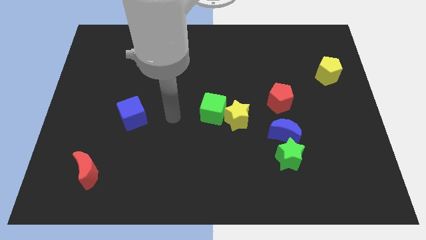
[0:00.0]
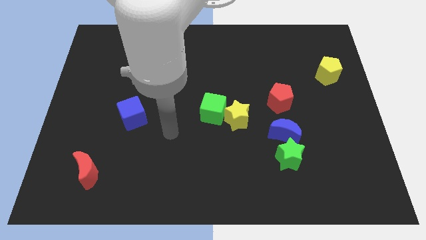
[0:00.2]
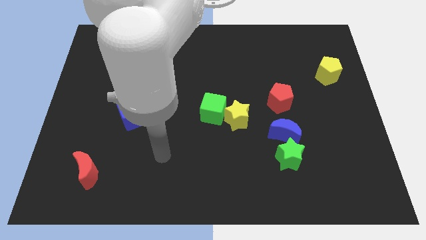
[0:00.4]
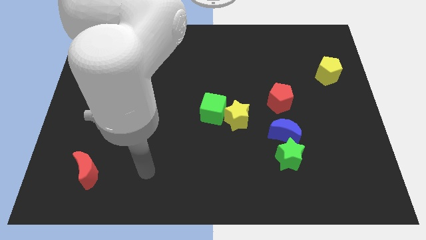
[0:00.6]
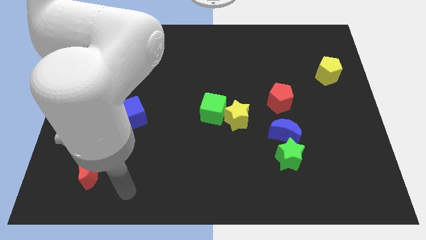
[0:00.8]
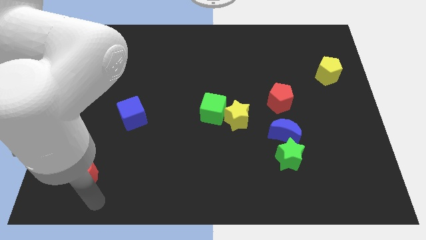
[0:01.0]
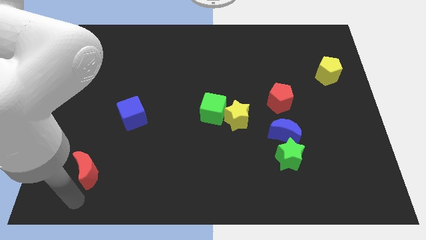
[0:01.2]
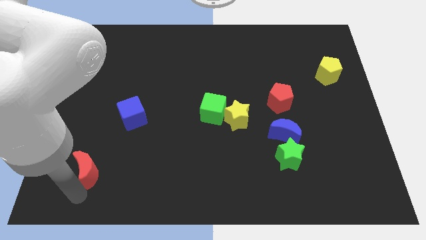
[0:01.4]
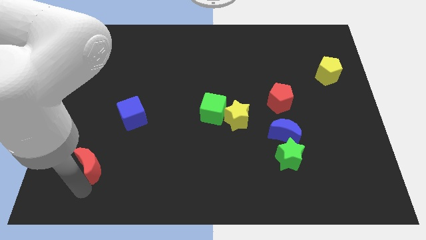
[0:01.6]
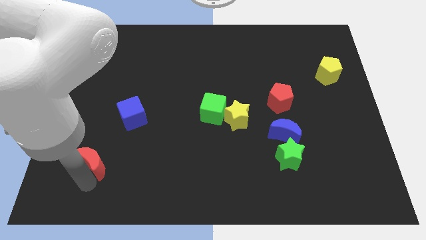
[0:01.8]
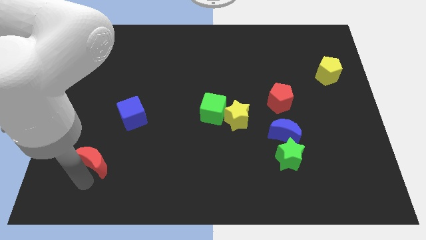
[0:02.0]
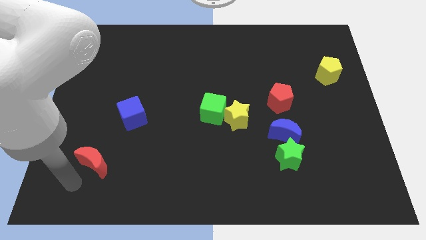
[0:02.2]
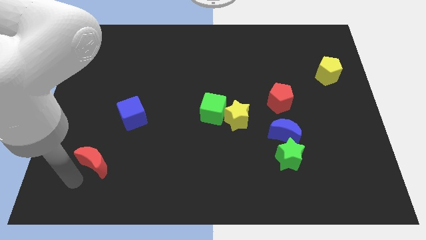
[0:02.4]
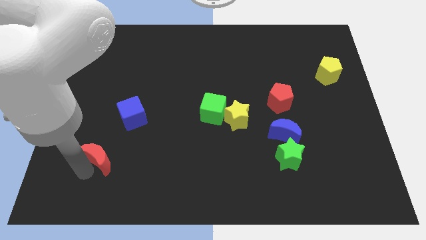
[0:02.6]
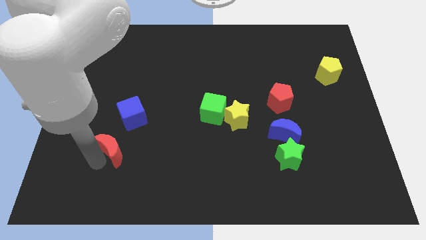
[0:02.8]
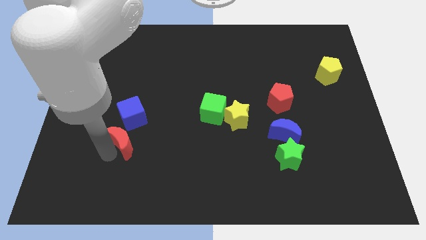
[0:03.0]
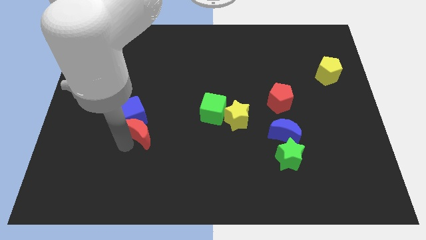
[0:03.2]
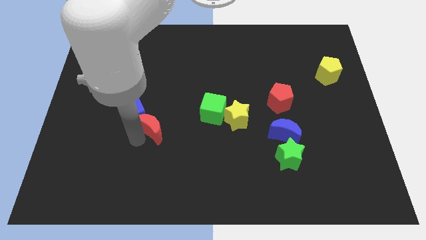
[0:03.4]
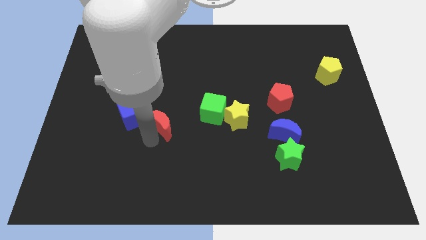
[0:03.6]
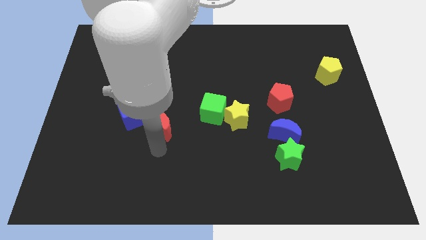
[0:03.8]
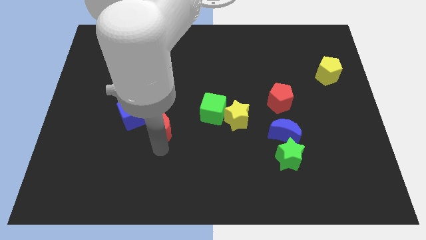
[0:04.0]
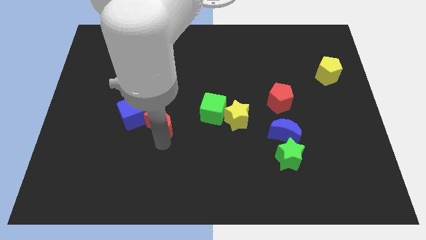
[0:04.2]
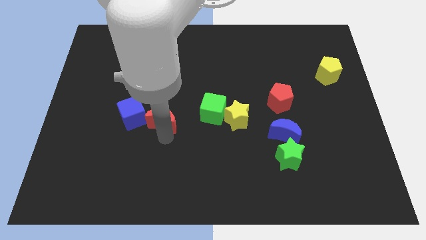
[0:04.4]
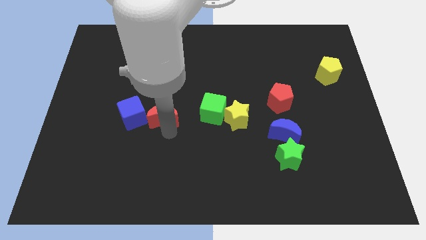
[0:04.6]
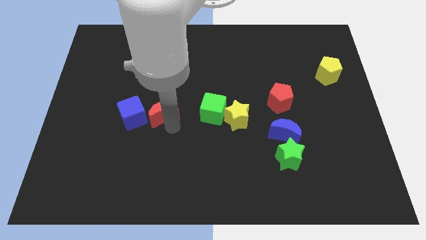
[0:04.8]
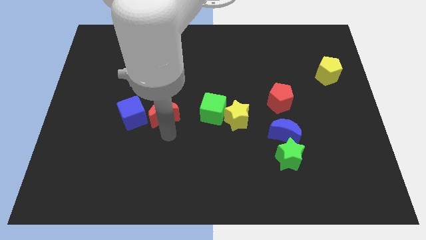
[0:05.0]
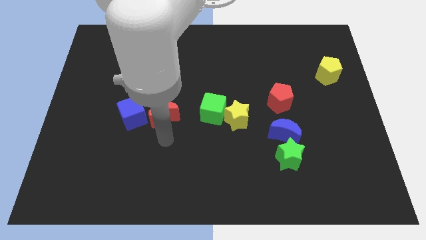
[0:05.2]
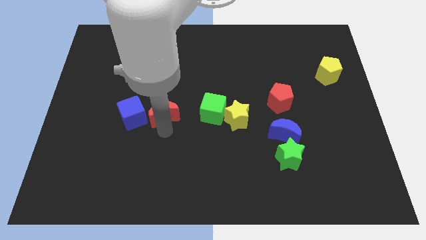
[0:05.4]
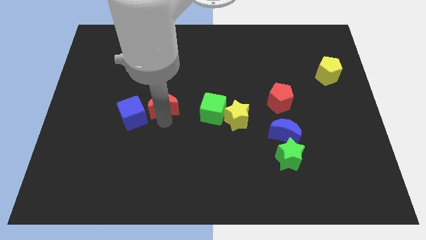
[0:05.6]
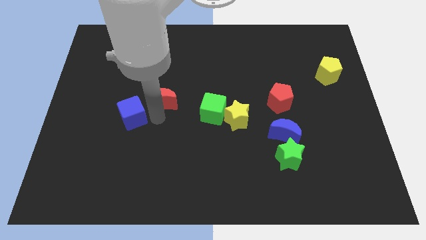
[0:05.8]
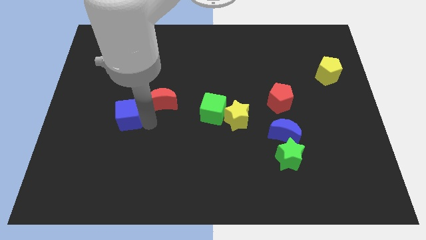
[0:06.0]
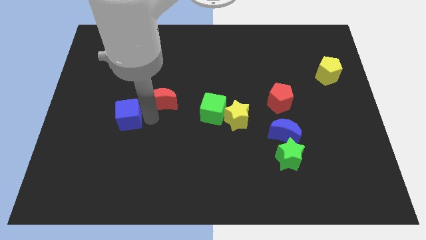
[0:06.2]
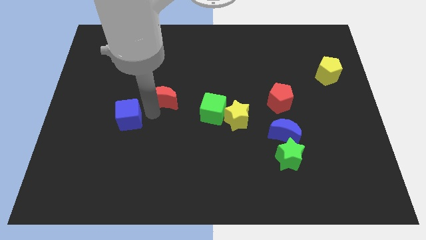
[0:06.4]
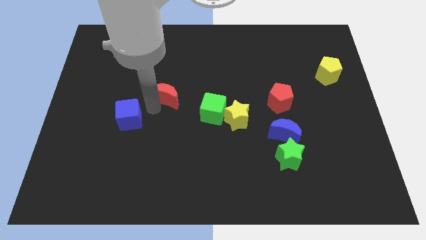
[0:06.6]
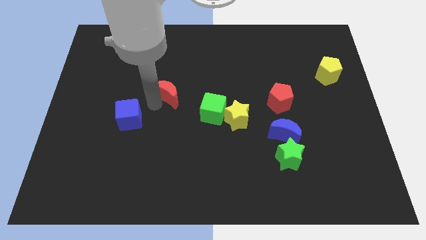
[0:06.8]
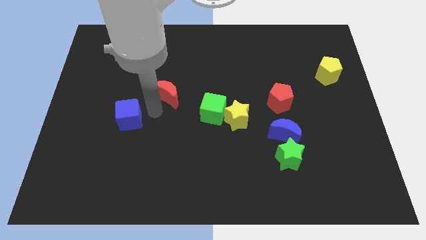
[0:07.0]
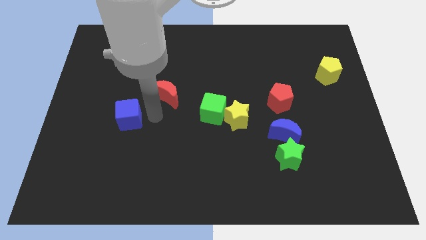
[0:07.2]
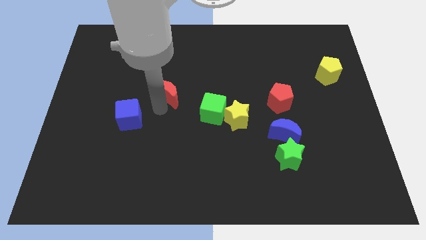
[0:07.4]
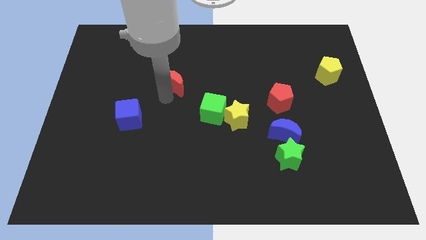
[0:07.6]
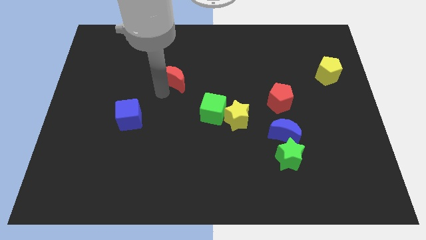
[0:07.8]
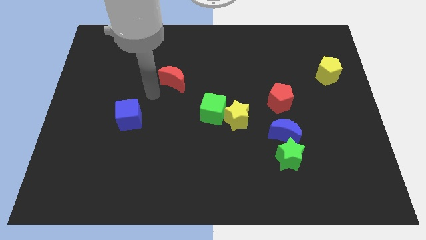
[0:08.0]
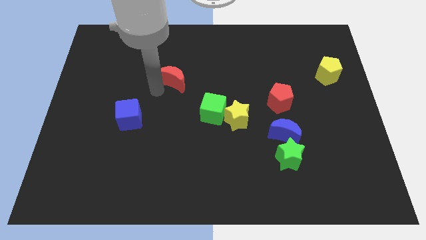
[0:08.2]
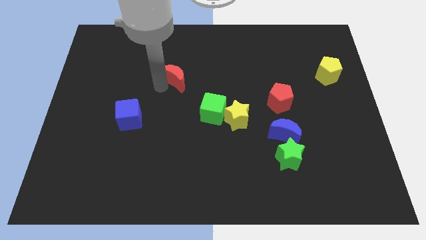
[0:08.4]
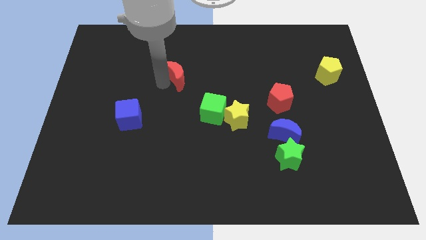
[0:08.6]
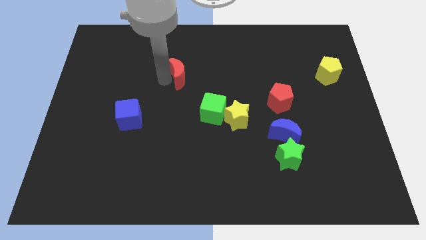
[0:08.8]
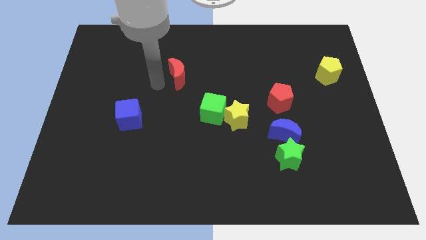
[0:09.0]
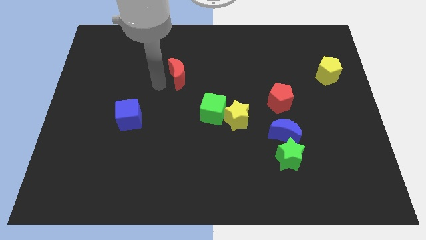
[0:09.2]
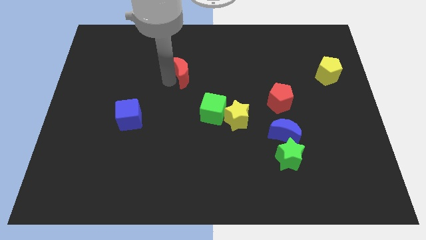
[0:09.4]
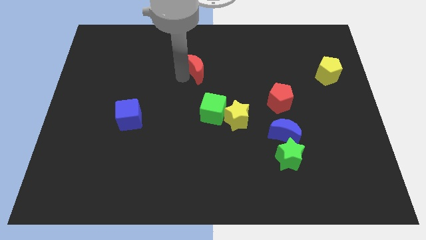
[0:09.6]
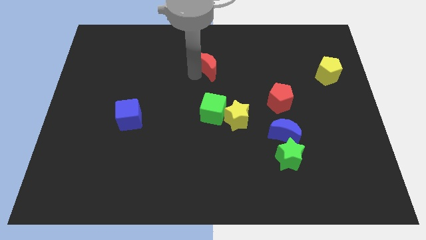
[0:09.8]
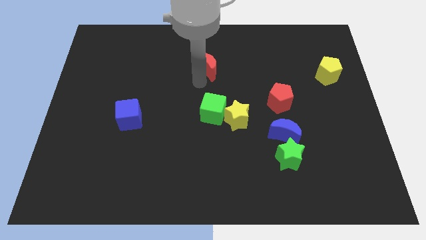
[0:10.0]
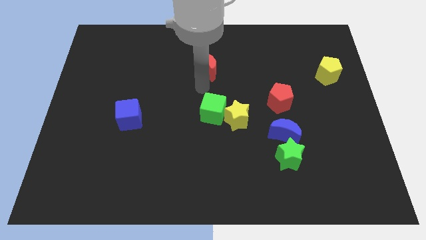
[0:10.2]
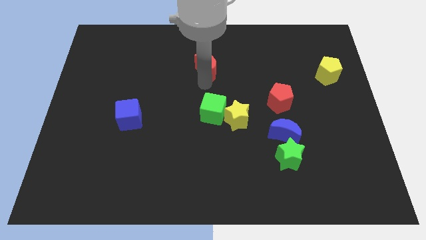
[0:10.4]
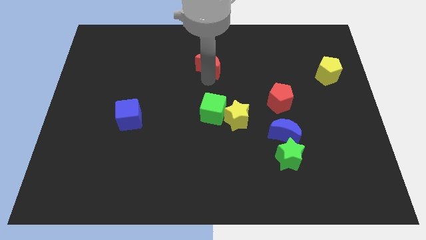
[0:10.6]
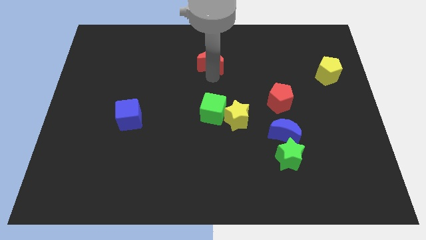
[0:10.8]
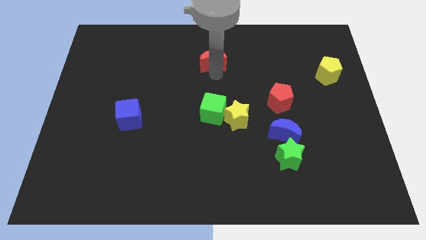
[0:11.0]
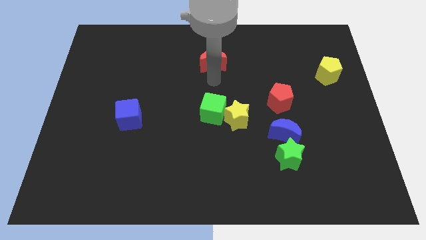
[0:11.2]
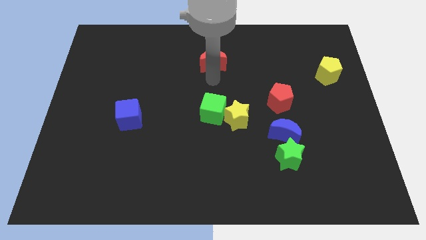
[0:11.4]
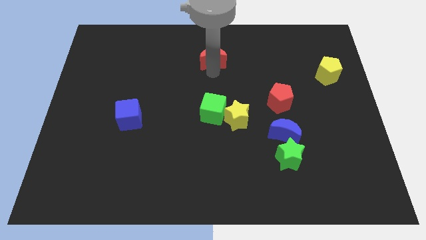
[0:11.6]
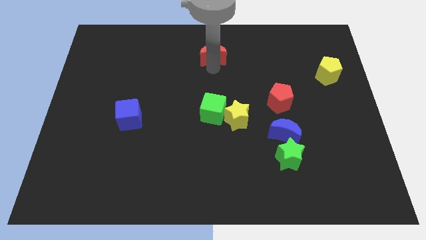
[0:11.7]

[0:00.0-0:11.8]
move the red moon to the towards your base

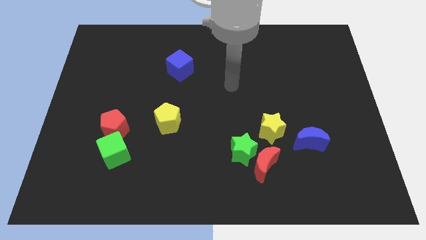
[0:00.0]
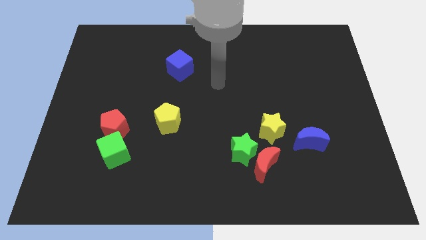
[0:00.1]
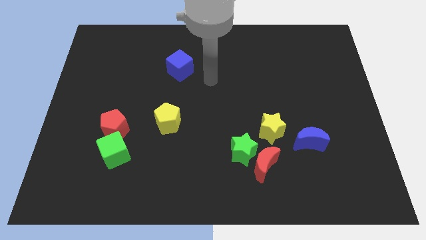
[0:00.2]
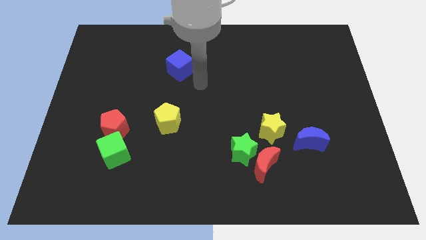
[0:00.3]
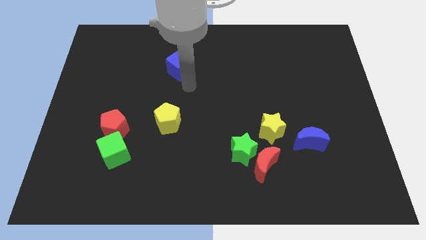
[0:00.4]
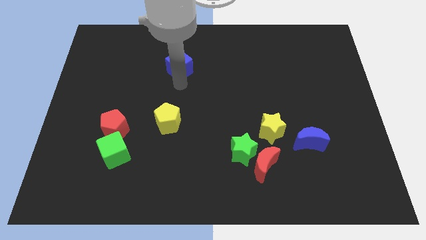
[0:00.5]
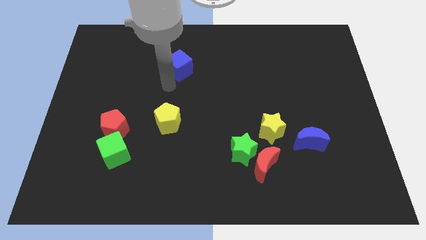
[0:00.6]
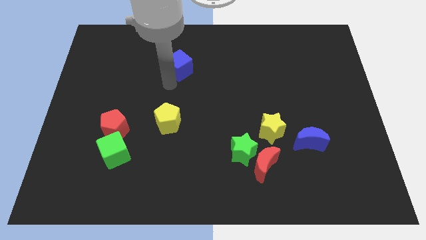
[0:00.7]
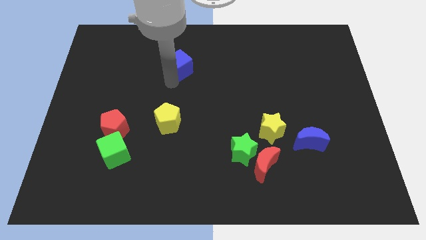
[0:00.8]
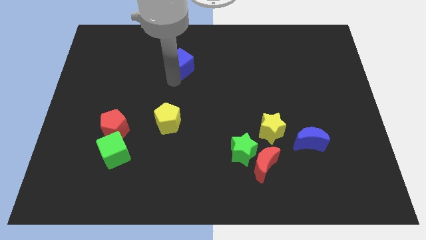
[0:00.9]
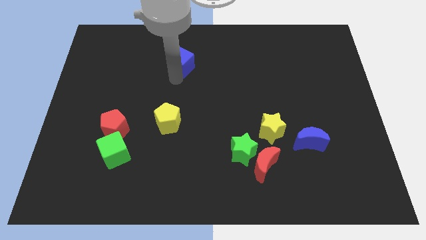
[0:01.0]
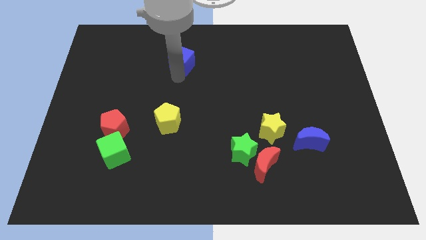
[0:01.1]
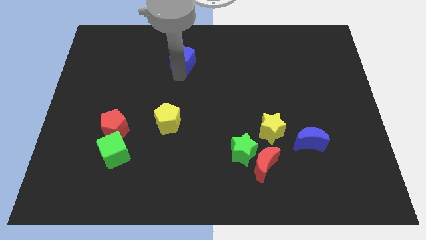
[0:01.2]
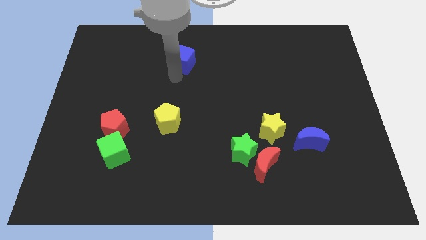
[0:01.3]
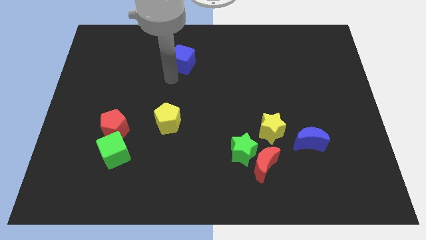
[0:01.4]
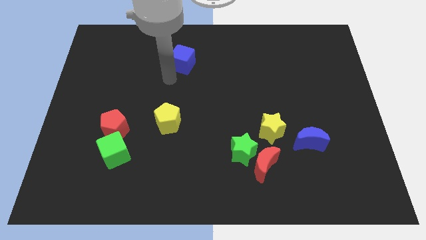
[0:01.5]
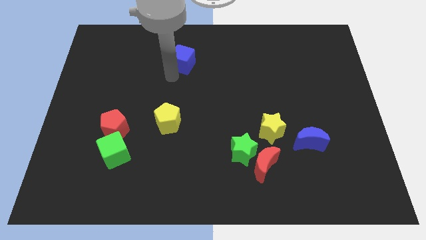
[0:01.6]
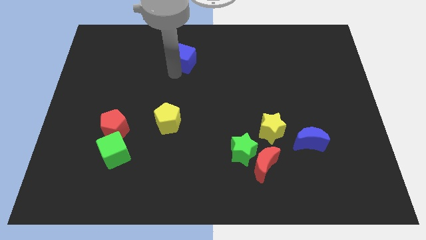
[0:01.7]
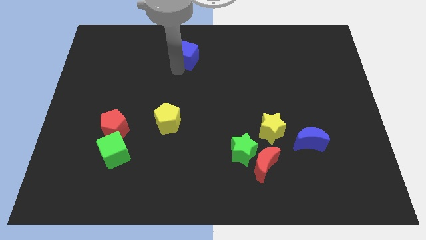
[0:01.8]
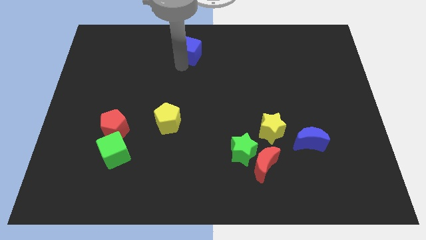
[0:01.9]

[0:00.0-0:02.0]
slide the blue cube to the towards your base
